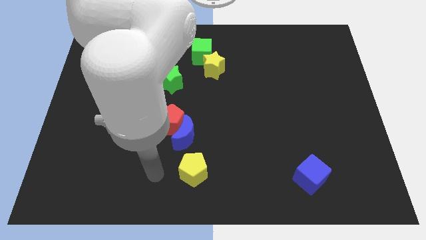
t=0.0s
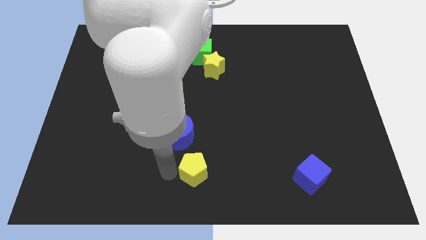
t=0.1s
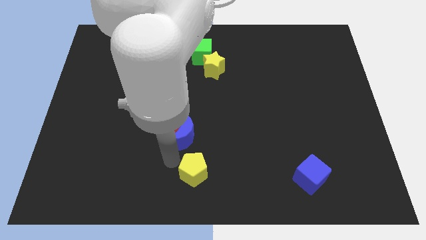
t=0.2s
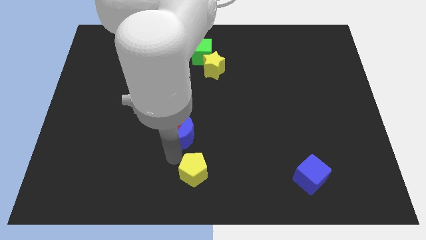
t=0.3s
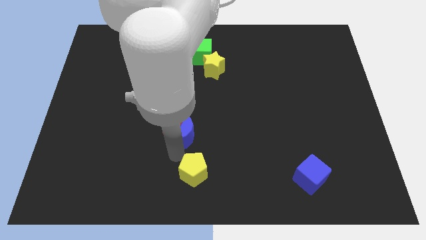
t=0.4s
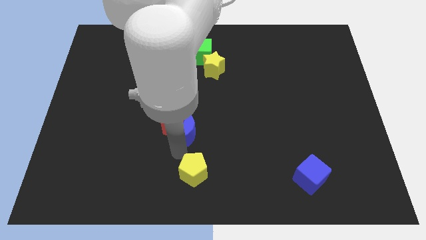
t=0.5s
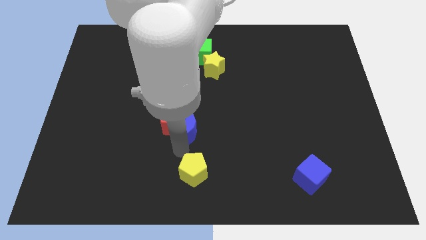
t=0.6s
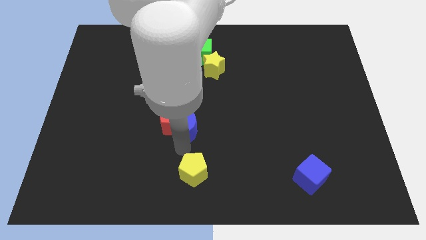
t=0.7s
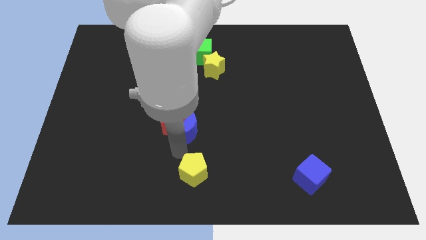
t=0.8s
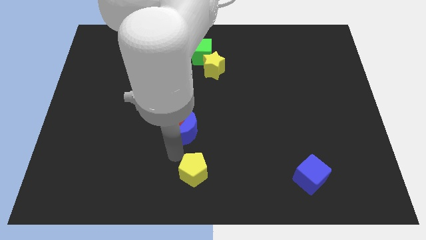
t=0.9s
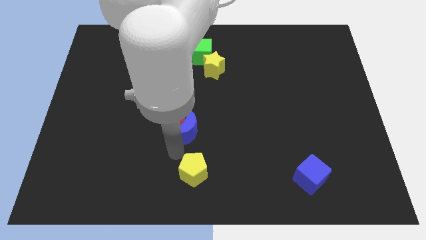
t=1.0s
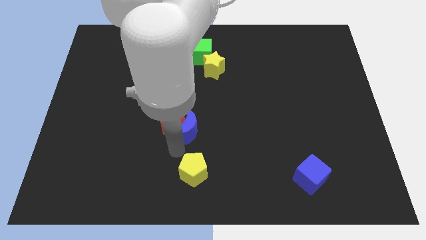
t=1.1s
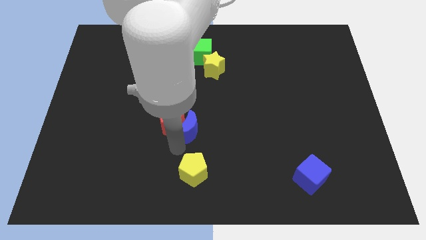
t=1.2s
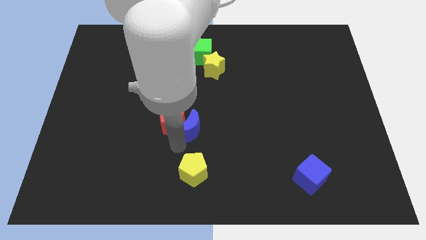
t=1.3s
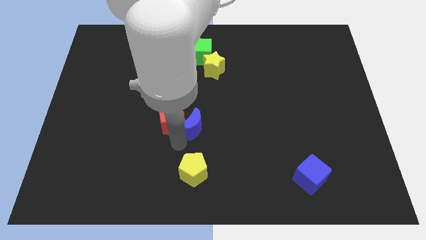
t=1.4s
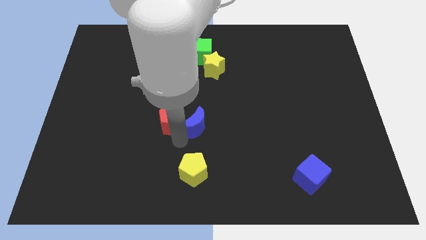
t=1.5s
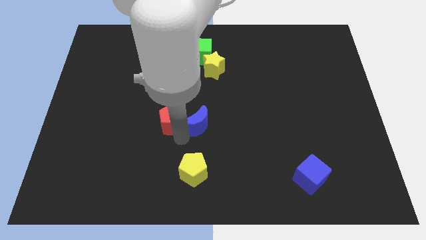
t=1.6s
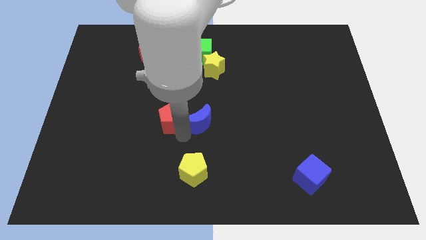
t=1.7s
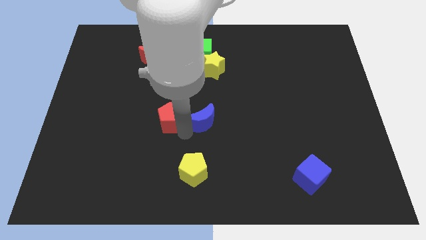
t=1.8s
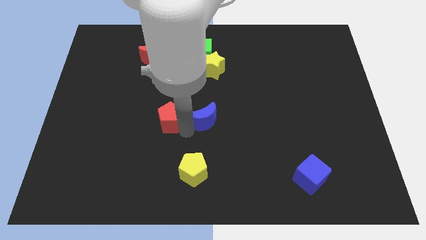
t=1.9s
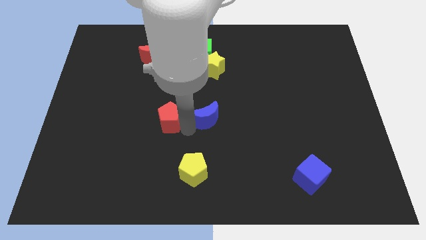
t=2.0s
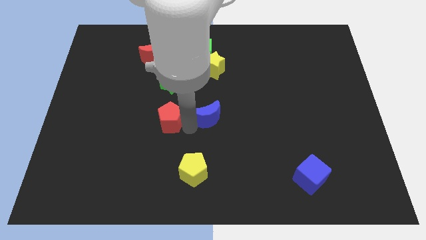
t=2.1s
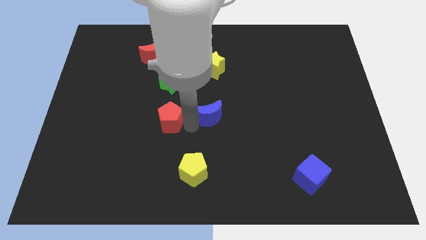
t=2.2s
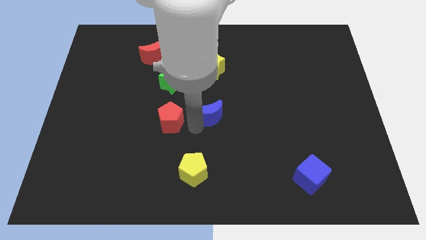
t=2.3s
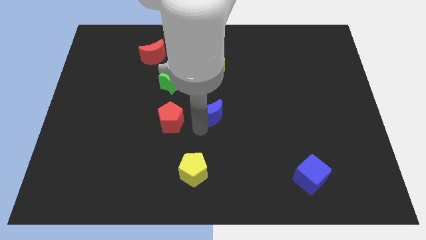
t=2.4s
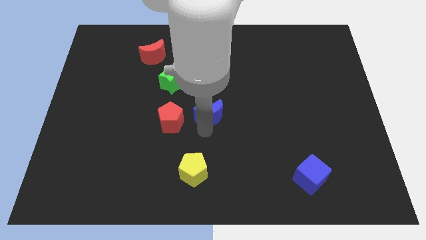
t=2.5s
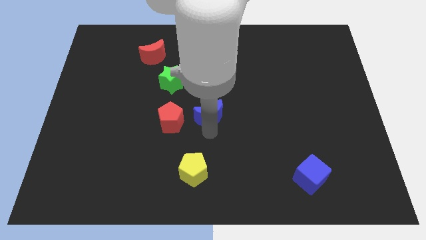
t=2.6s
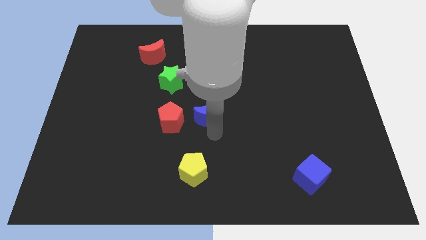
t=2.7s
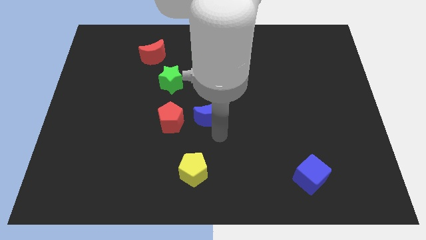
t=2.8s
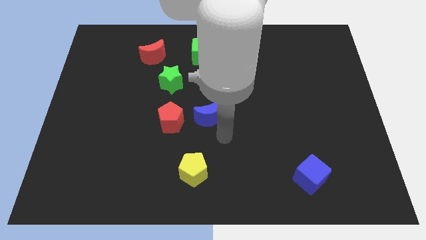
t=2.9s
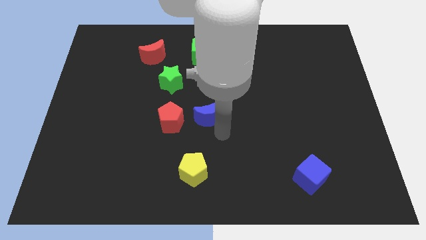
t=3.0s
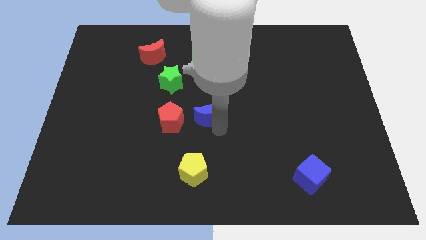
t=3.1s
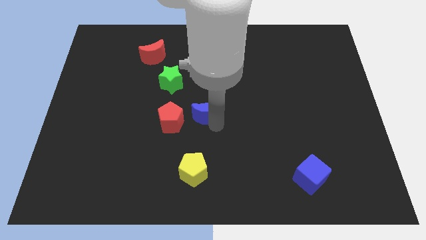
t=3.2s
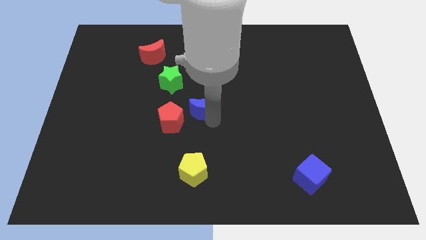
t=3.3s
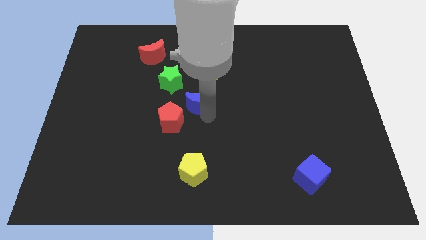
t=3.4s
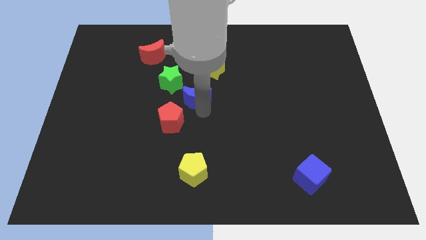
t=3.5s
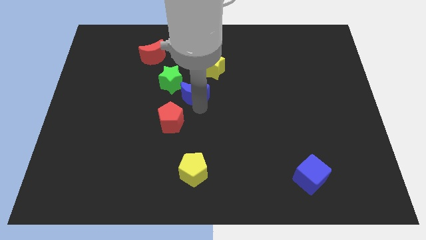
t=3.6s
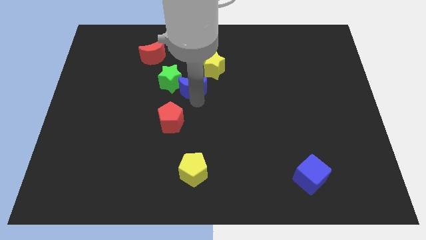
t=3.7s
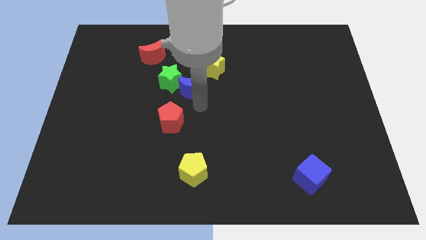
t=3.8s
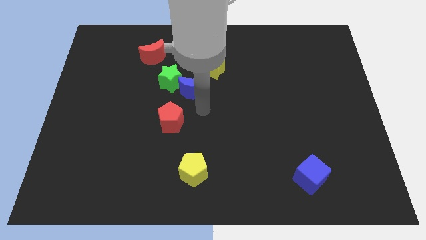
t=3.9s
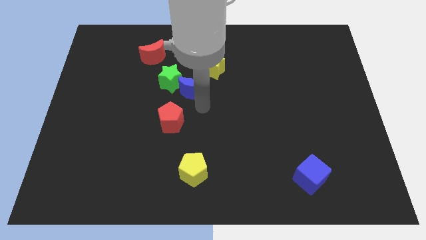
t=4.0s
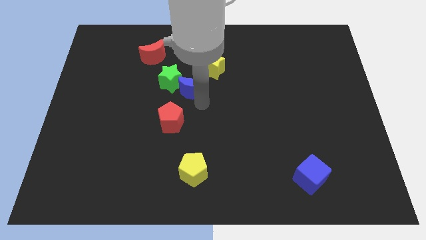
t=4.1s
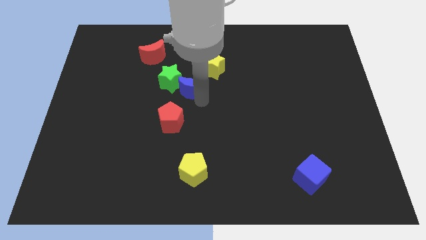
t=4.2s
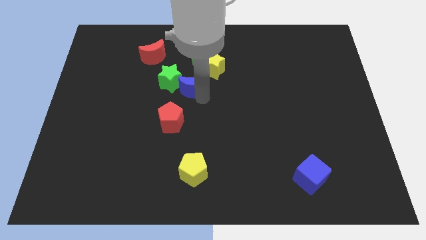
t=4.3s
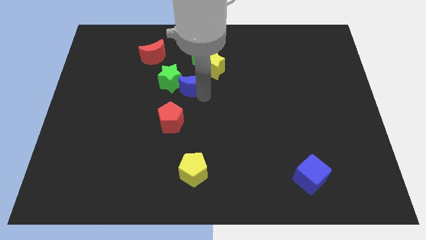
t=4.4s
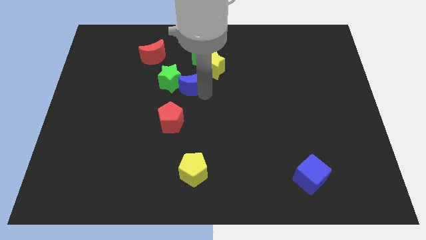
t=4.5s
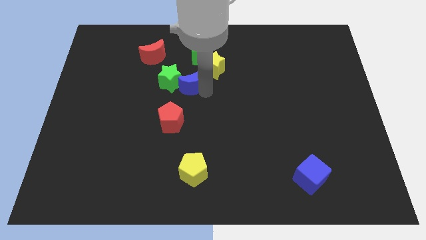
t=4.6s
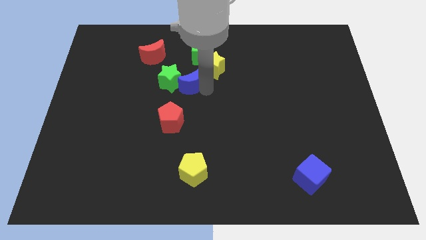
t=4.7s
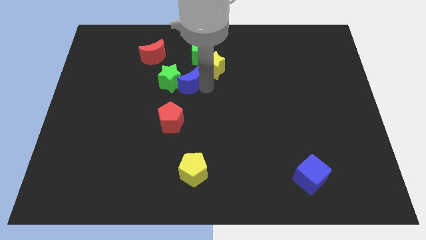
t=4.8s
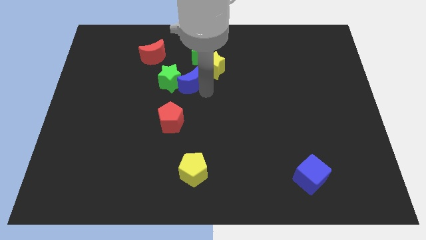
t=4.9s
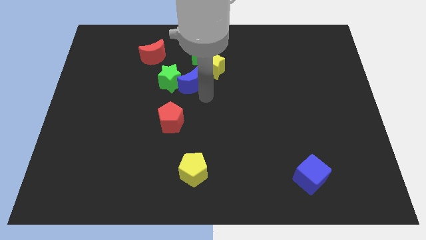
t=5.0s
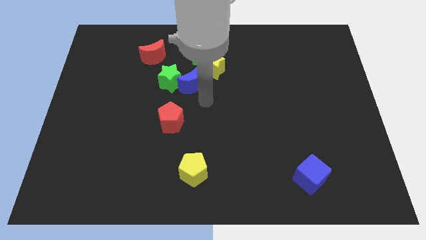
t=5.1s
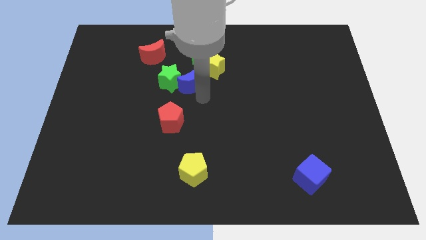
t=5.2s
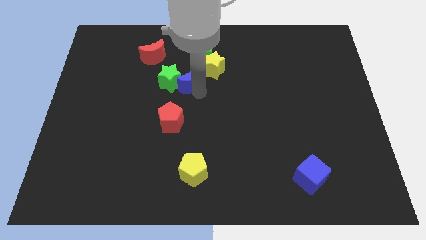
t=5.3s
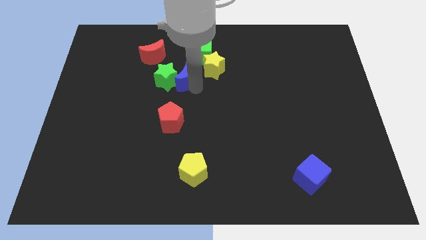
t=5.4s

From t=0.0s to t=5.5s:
slide the blue moon to the bottom left side of the green cube

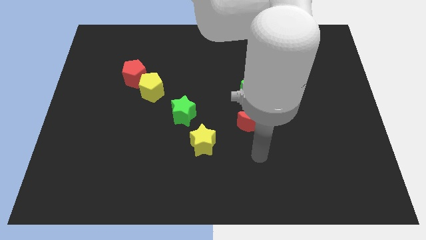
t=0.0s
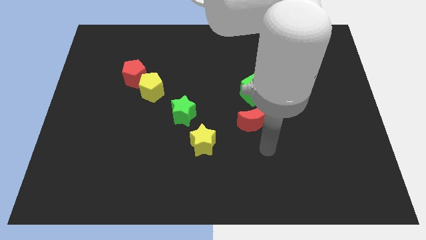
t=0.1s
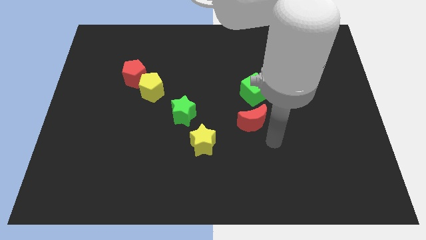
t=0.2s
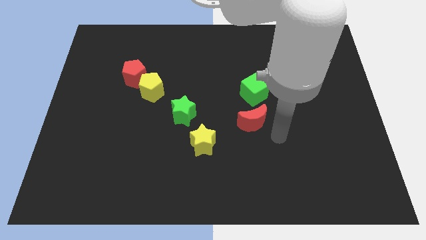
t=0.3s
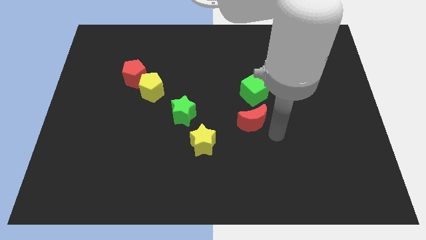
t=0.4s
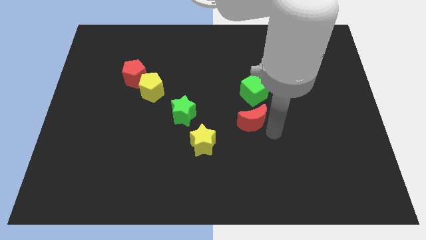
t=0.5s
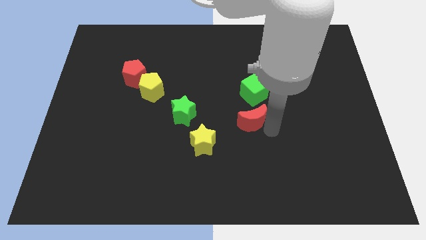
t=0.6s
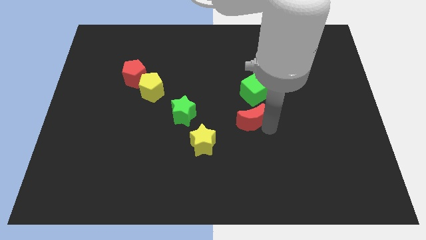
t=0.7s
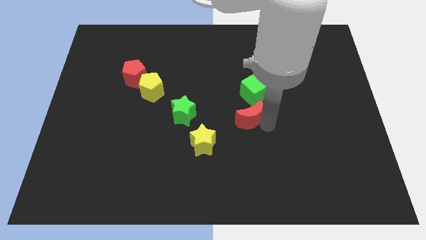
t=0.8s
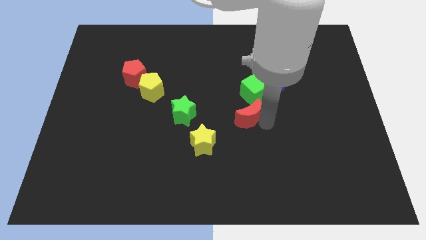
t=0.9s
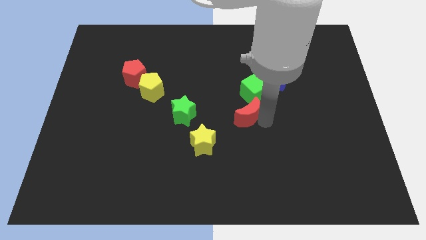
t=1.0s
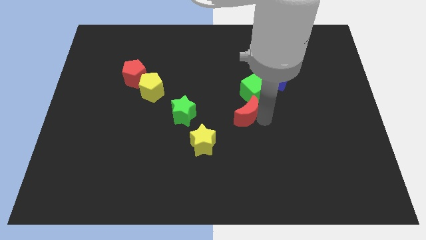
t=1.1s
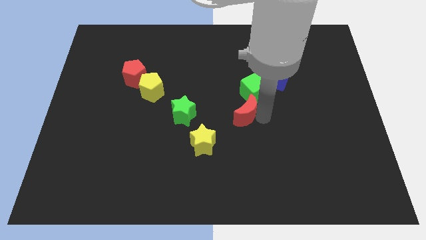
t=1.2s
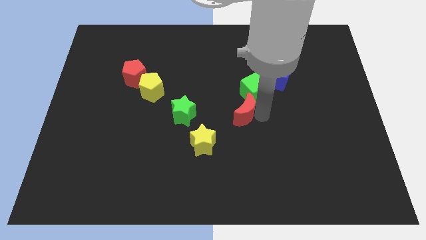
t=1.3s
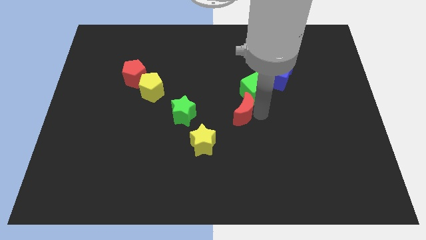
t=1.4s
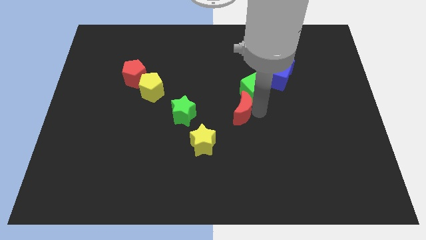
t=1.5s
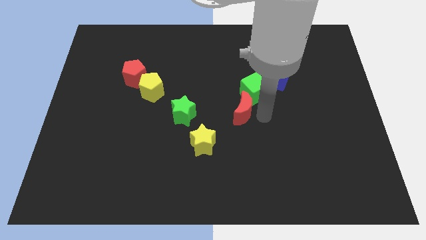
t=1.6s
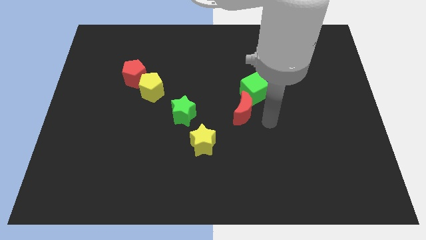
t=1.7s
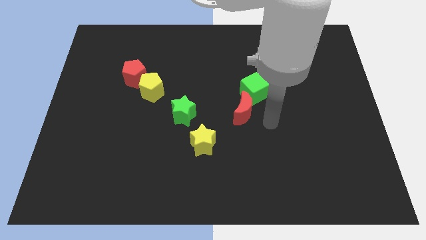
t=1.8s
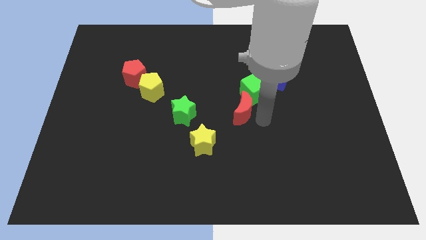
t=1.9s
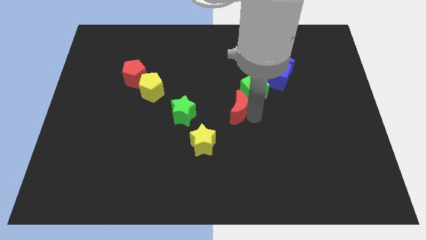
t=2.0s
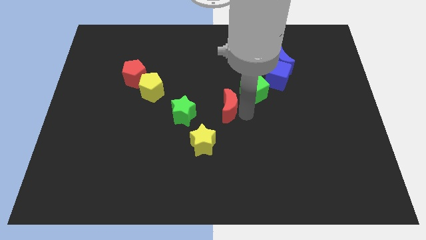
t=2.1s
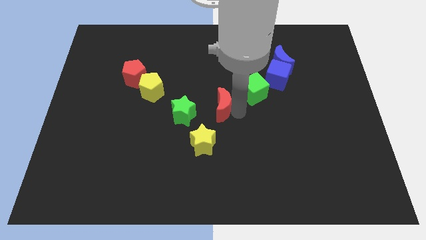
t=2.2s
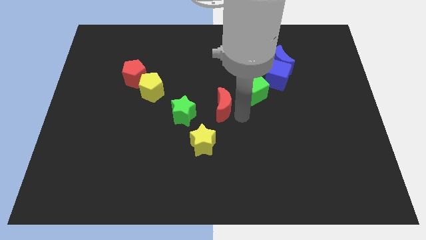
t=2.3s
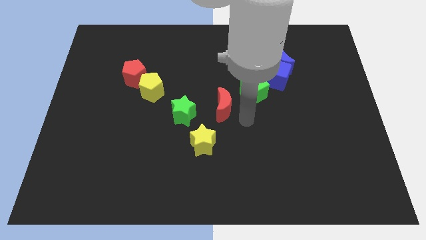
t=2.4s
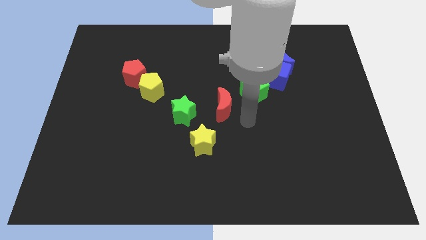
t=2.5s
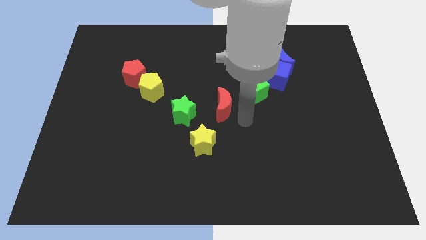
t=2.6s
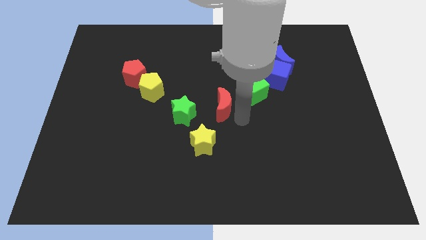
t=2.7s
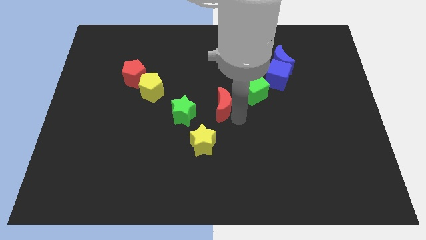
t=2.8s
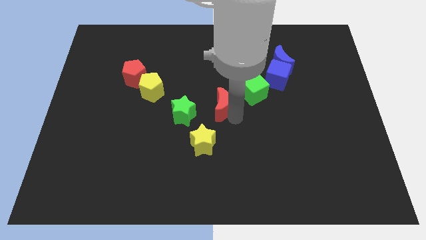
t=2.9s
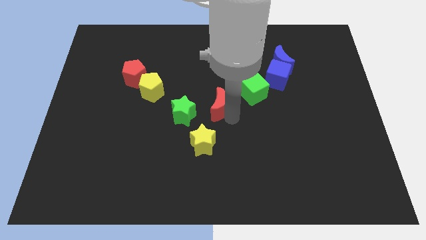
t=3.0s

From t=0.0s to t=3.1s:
put the red moon to the top right side of the green star
